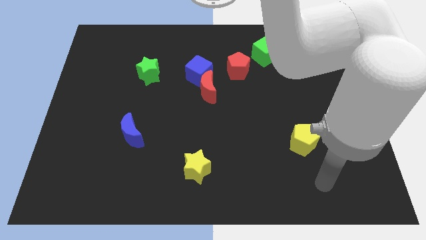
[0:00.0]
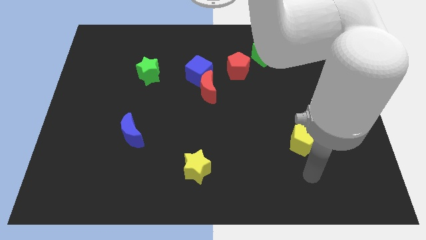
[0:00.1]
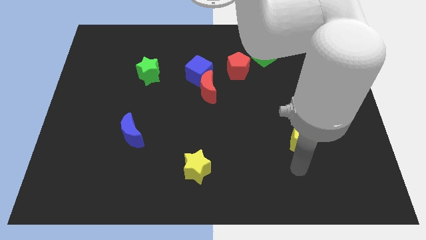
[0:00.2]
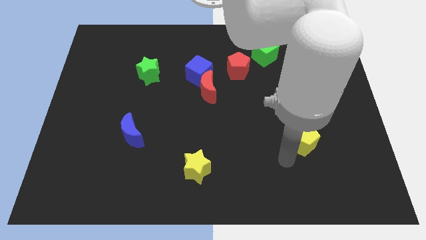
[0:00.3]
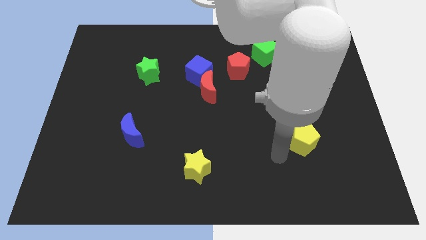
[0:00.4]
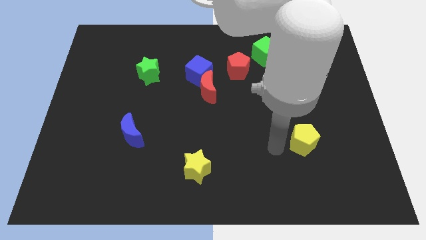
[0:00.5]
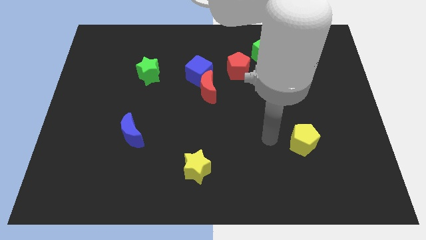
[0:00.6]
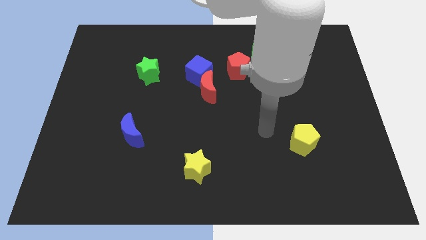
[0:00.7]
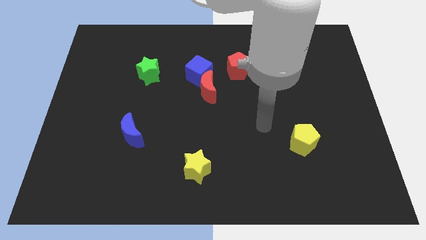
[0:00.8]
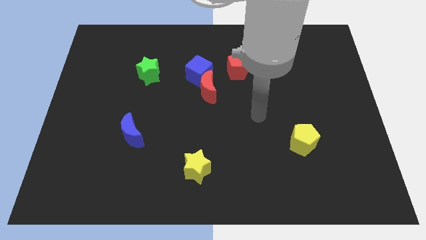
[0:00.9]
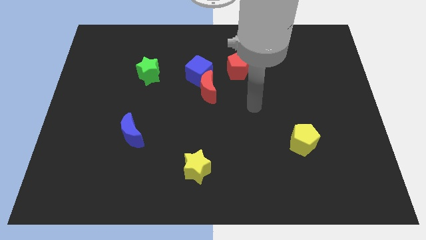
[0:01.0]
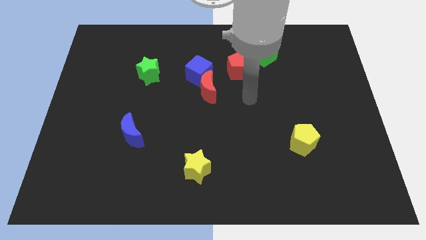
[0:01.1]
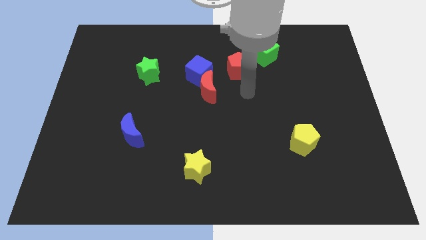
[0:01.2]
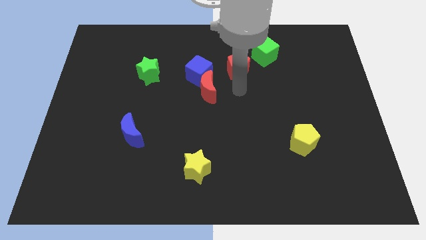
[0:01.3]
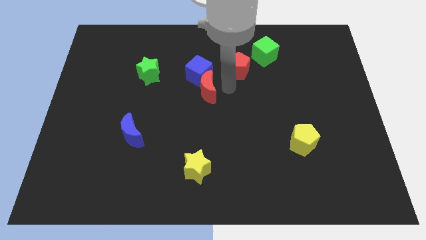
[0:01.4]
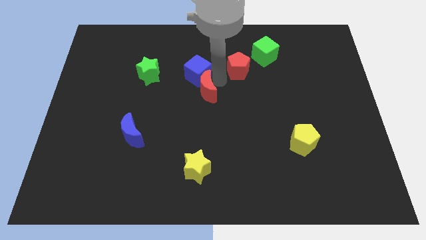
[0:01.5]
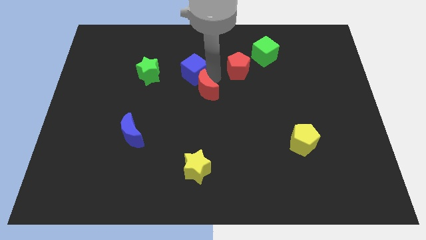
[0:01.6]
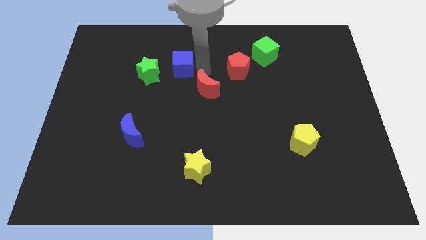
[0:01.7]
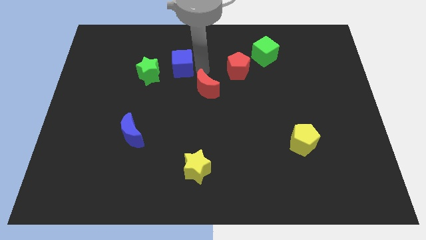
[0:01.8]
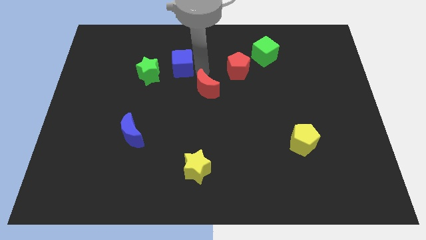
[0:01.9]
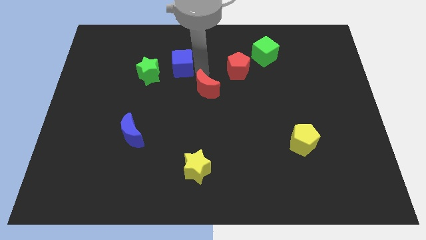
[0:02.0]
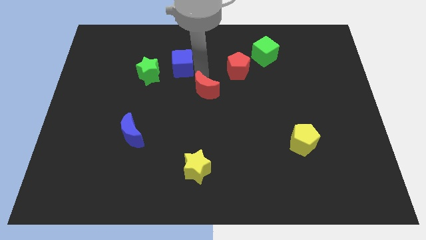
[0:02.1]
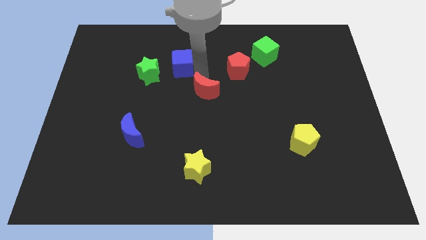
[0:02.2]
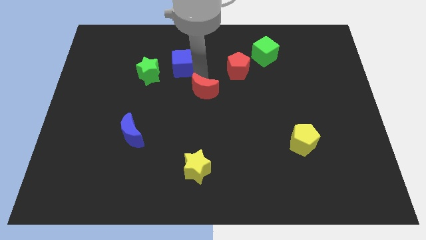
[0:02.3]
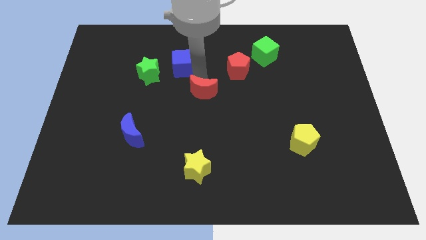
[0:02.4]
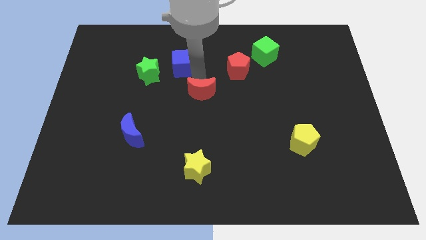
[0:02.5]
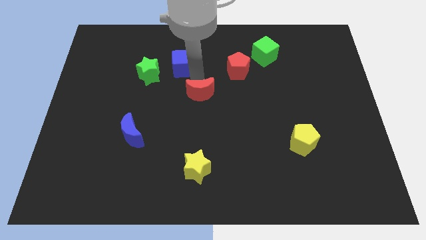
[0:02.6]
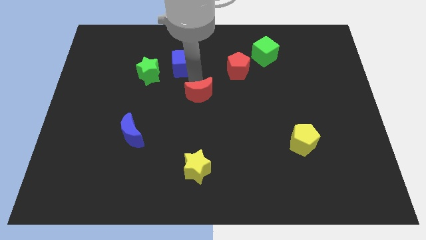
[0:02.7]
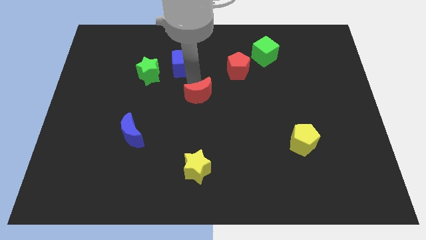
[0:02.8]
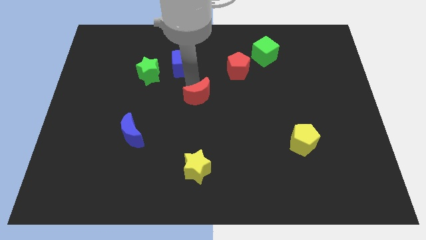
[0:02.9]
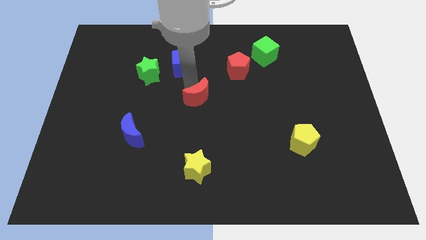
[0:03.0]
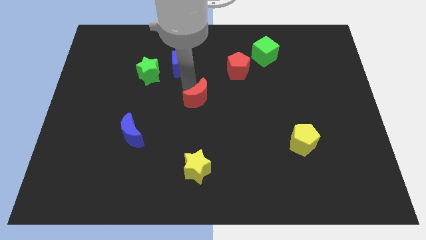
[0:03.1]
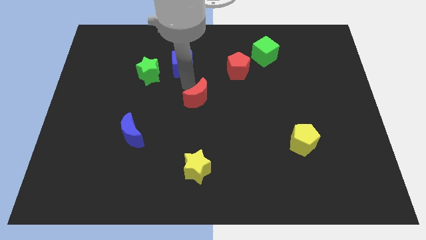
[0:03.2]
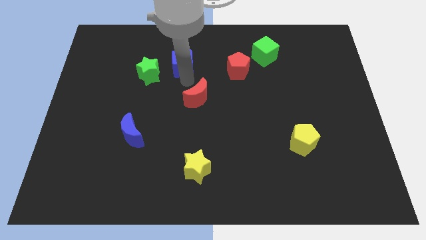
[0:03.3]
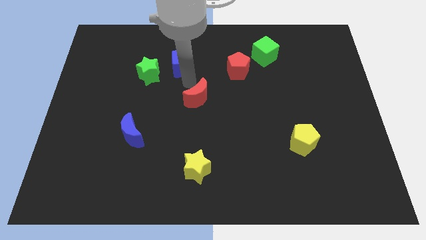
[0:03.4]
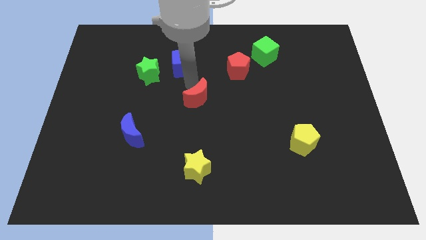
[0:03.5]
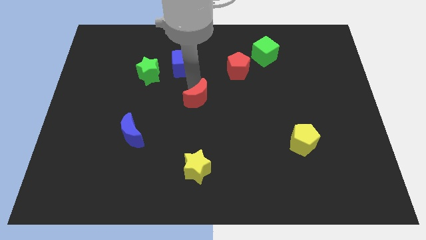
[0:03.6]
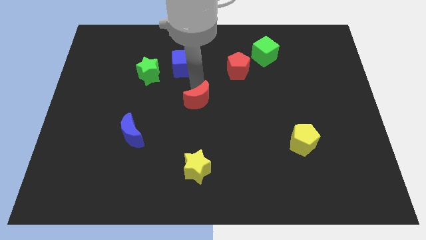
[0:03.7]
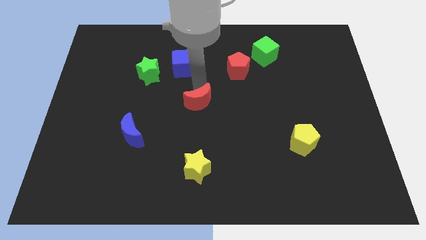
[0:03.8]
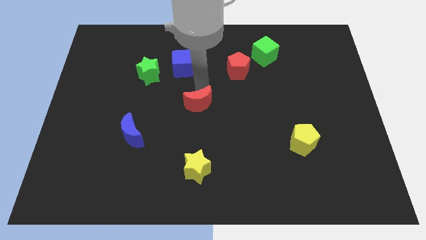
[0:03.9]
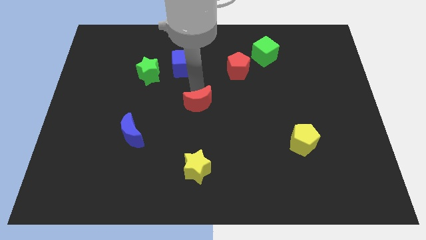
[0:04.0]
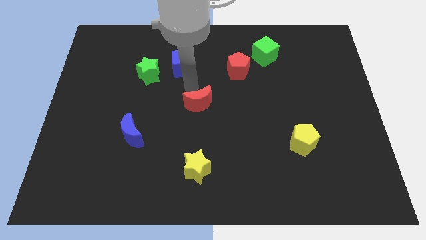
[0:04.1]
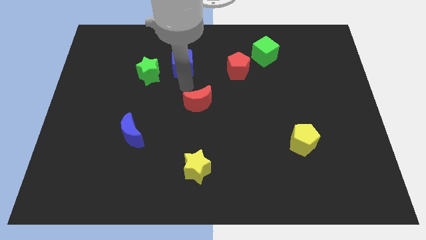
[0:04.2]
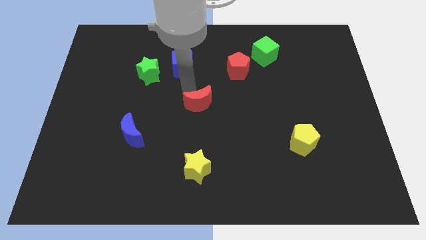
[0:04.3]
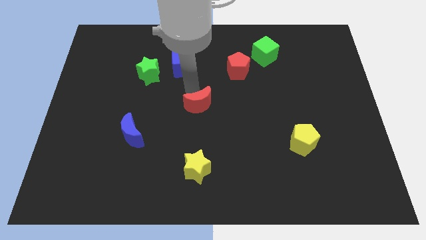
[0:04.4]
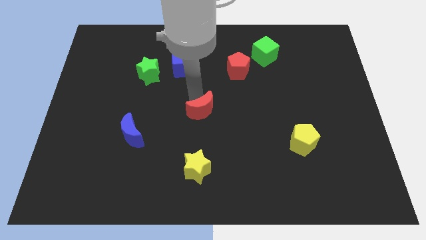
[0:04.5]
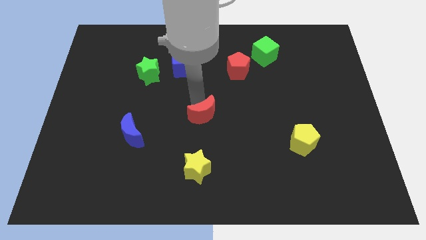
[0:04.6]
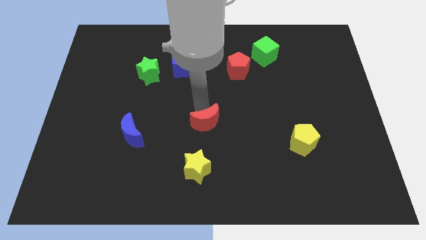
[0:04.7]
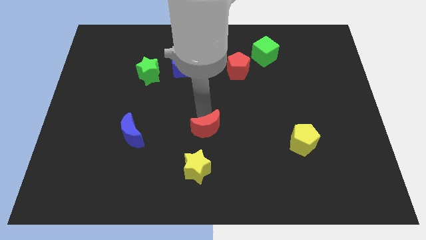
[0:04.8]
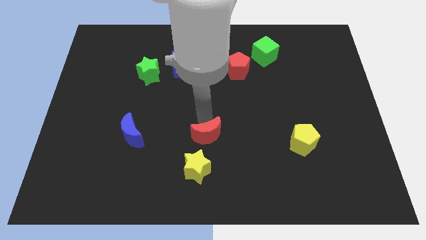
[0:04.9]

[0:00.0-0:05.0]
slide the red moon to the top right of the yellow star

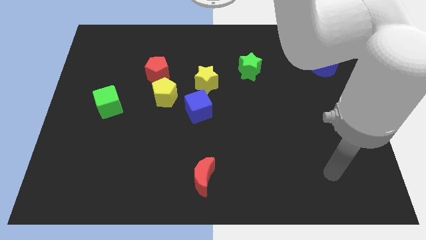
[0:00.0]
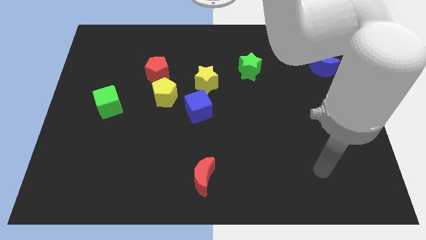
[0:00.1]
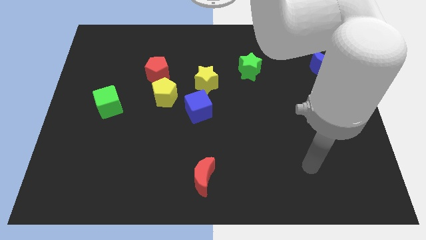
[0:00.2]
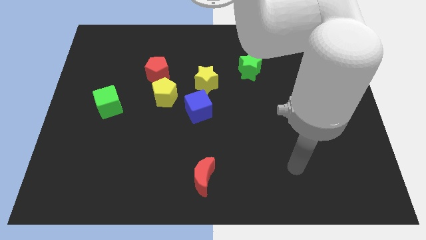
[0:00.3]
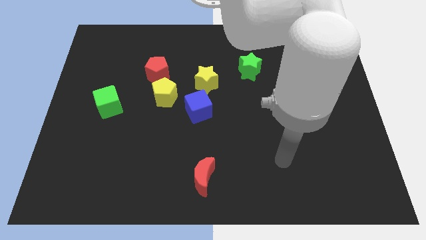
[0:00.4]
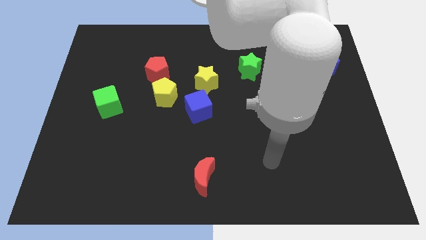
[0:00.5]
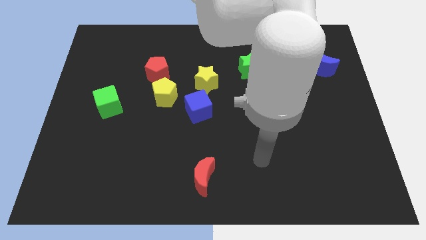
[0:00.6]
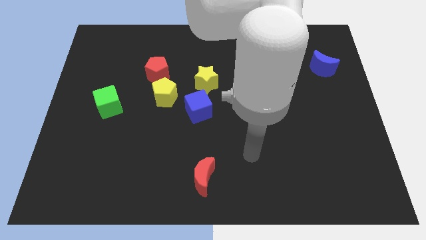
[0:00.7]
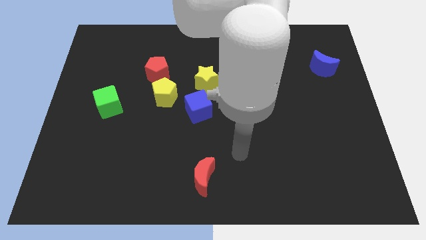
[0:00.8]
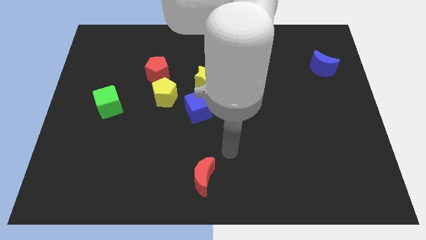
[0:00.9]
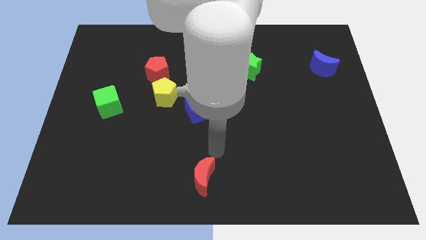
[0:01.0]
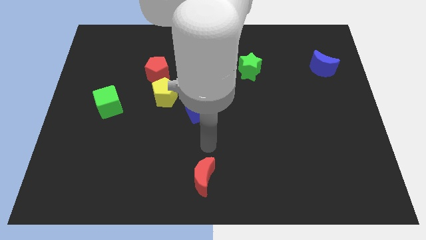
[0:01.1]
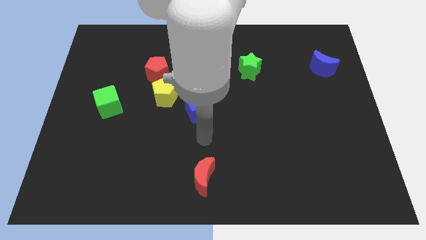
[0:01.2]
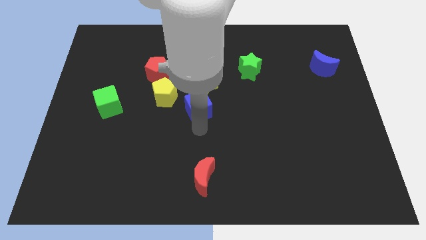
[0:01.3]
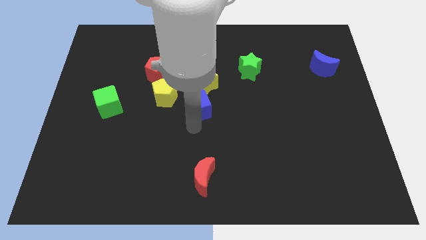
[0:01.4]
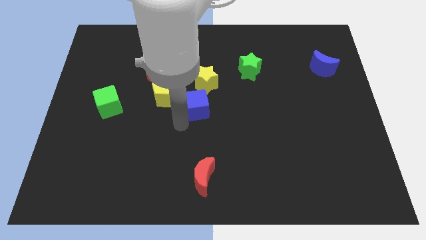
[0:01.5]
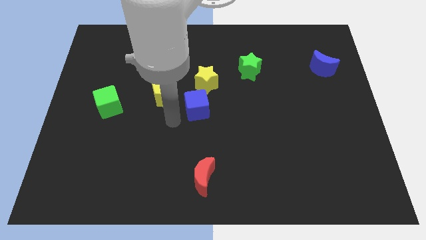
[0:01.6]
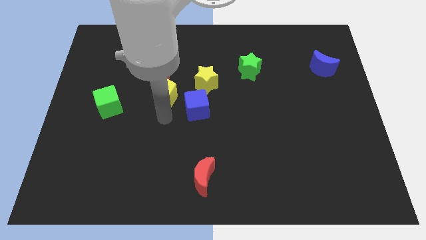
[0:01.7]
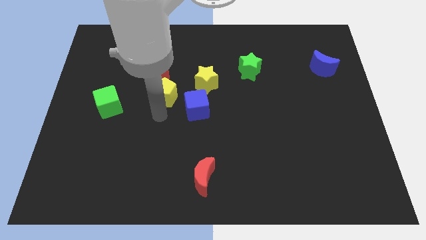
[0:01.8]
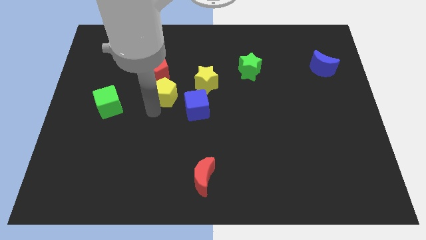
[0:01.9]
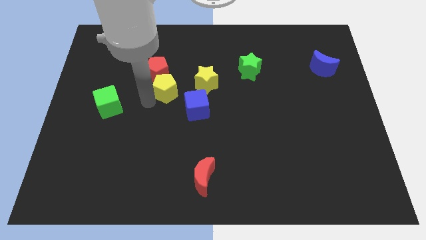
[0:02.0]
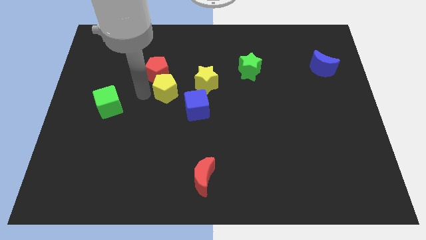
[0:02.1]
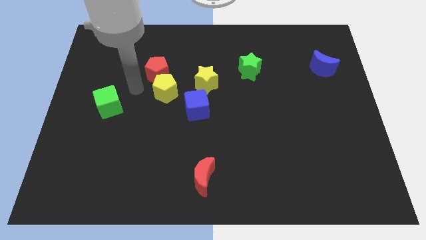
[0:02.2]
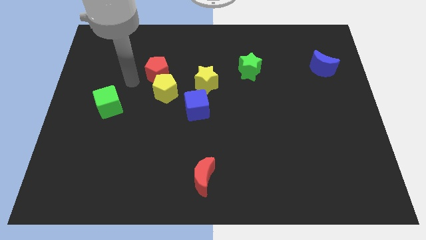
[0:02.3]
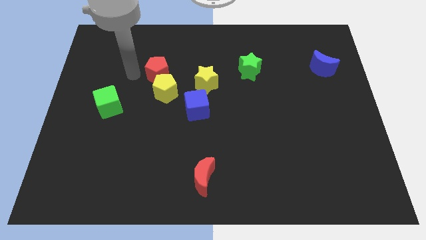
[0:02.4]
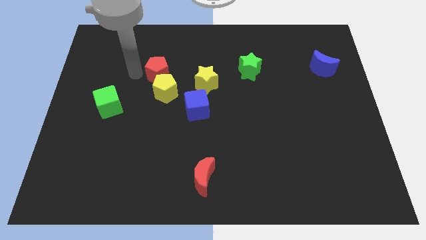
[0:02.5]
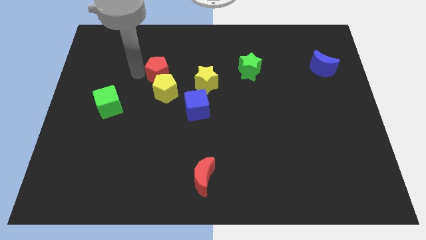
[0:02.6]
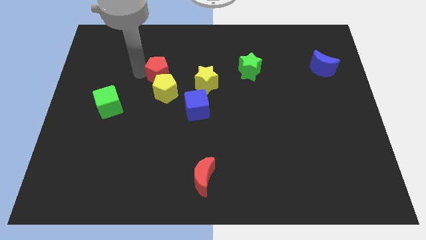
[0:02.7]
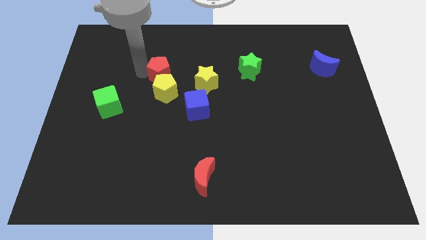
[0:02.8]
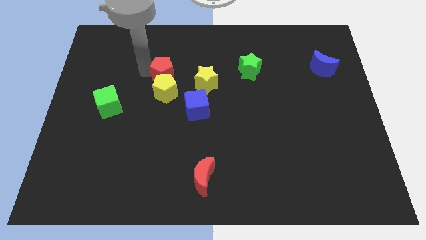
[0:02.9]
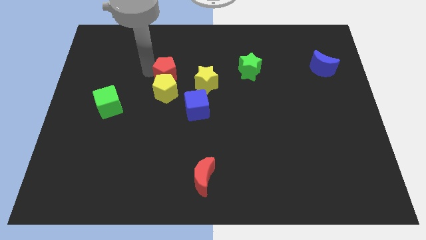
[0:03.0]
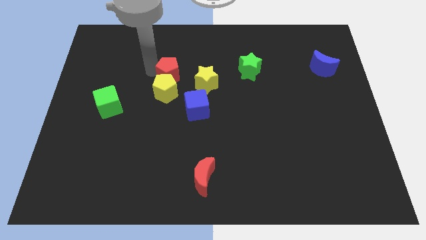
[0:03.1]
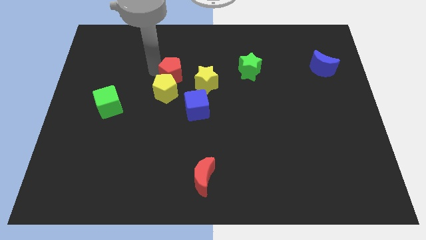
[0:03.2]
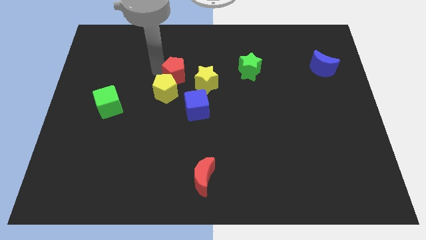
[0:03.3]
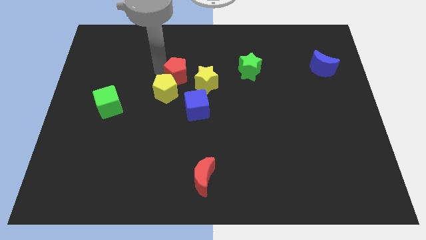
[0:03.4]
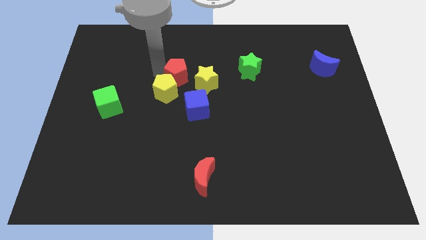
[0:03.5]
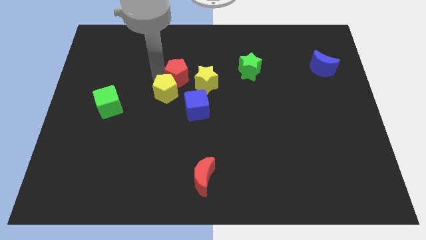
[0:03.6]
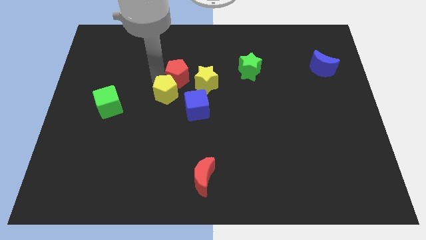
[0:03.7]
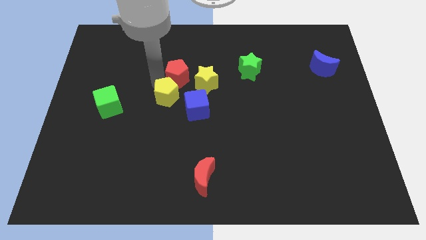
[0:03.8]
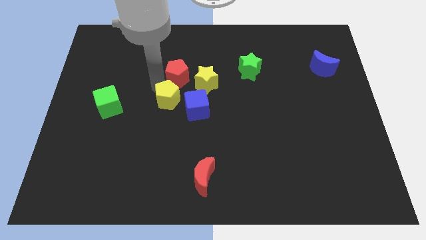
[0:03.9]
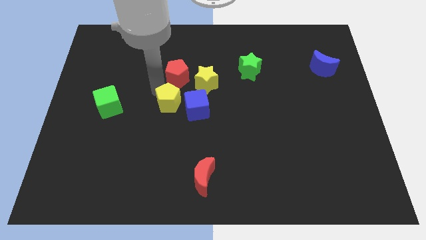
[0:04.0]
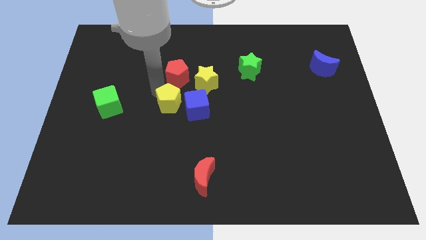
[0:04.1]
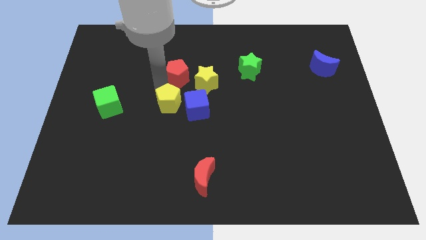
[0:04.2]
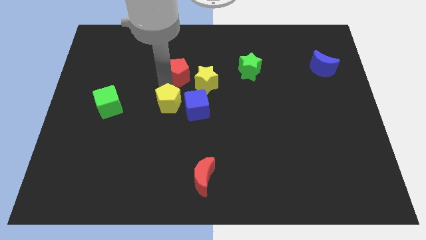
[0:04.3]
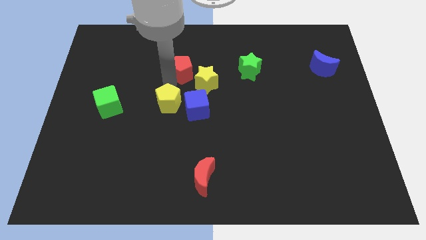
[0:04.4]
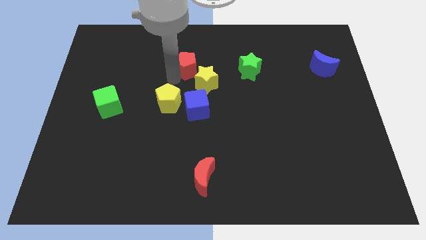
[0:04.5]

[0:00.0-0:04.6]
push the red pentagon to the left of the green star
